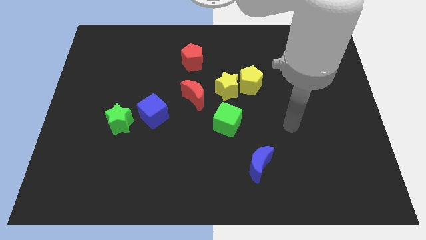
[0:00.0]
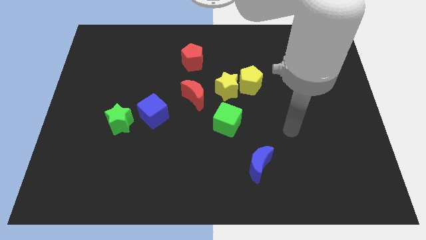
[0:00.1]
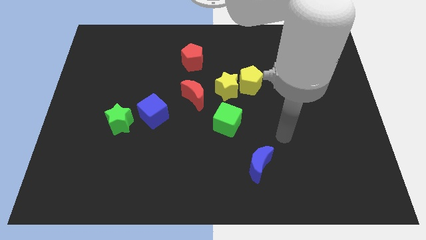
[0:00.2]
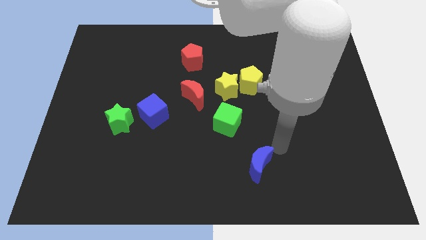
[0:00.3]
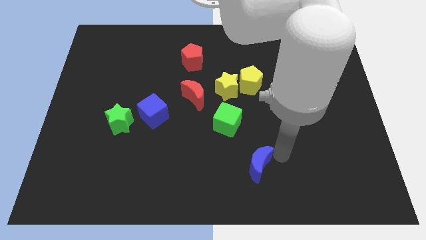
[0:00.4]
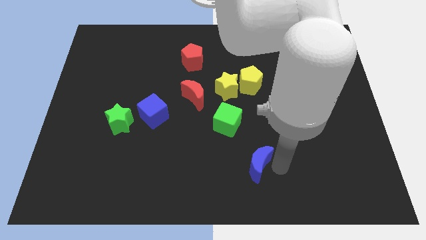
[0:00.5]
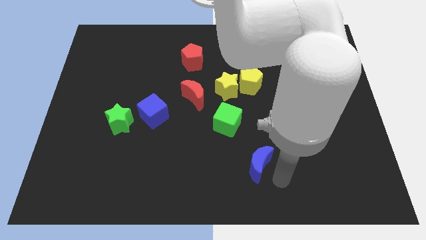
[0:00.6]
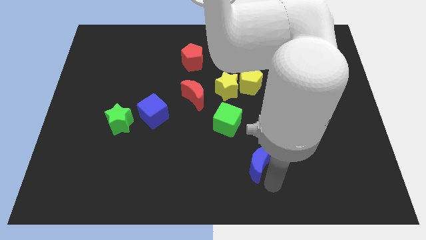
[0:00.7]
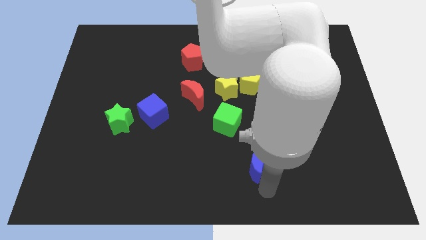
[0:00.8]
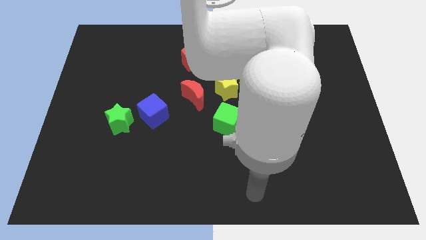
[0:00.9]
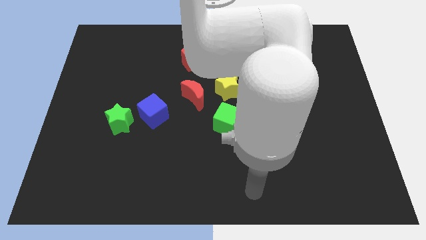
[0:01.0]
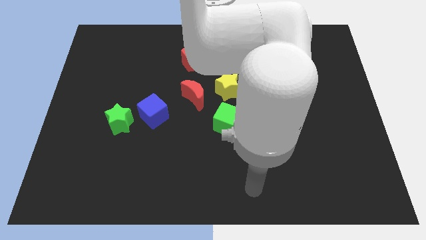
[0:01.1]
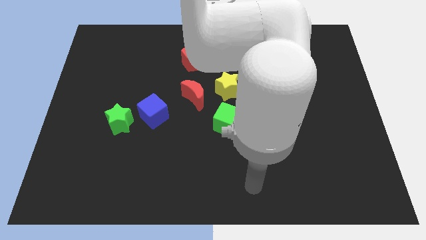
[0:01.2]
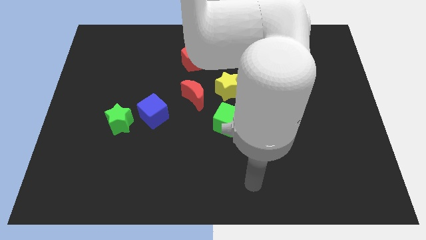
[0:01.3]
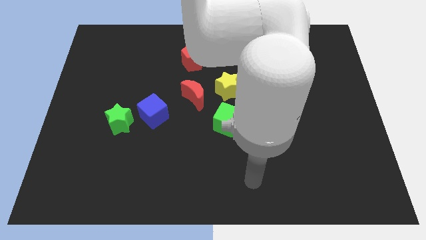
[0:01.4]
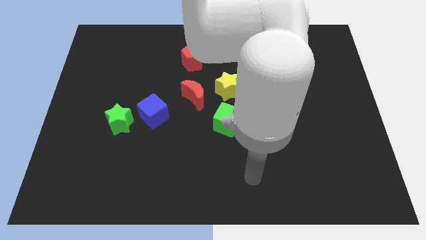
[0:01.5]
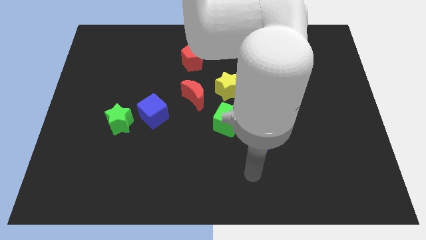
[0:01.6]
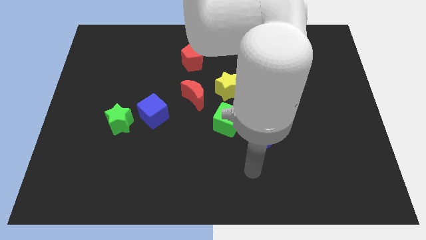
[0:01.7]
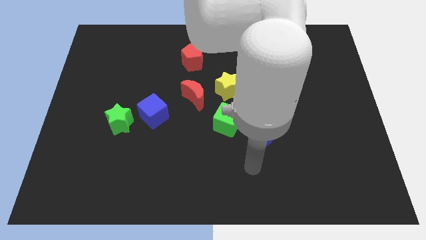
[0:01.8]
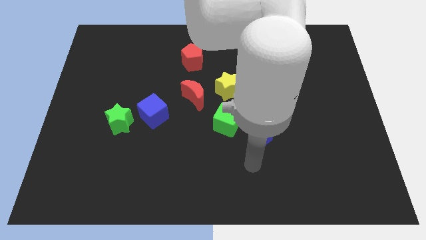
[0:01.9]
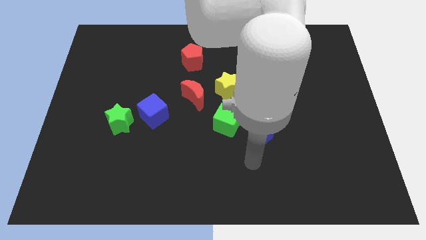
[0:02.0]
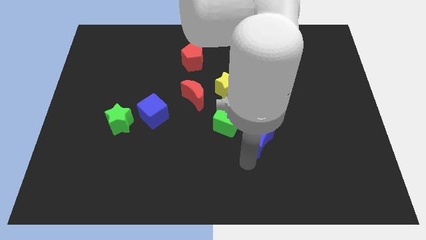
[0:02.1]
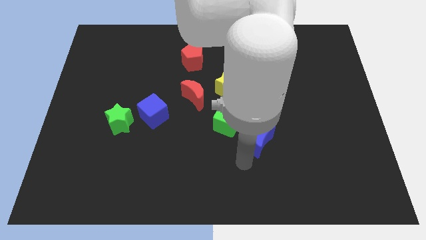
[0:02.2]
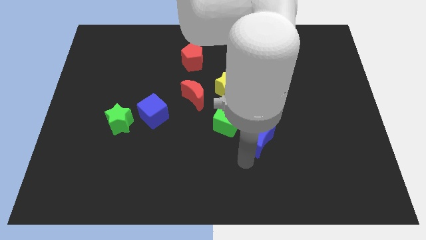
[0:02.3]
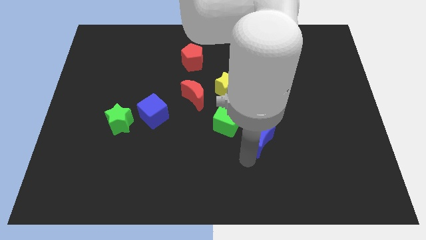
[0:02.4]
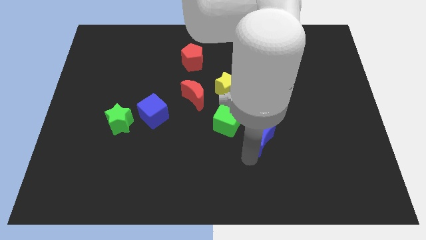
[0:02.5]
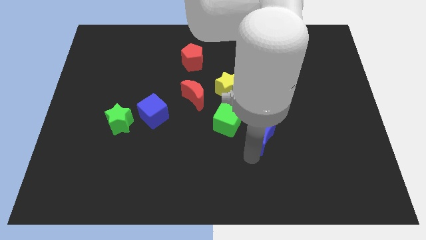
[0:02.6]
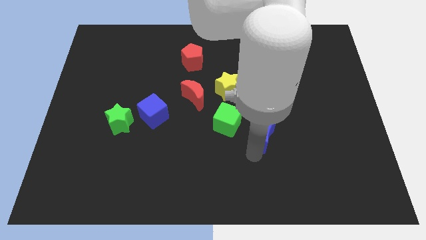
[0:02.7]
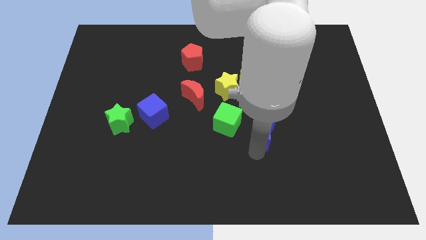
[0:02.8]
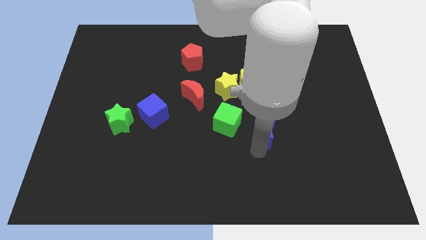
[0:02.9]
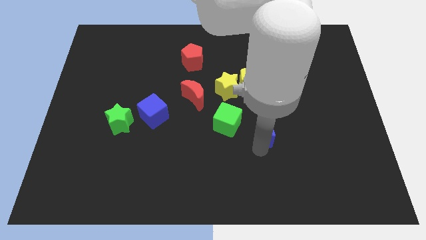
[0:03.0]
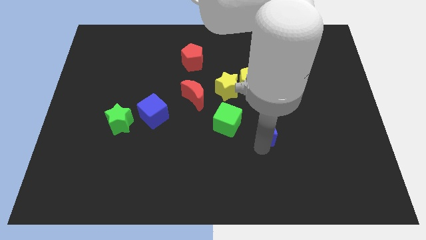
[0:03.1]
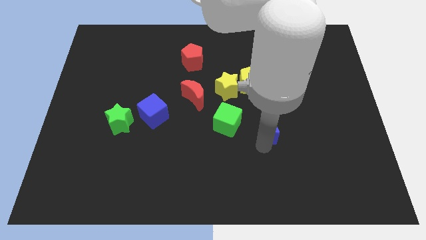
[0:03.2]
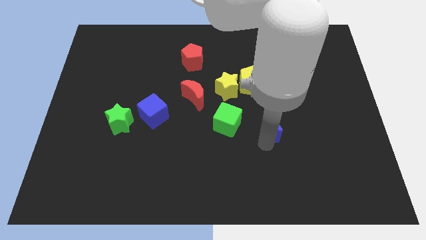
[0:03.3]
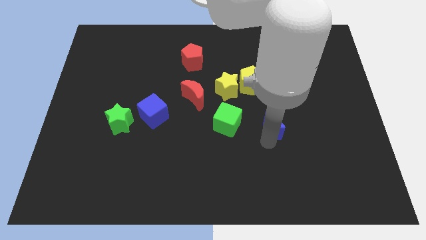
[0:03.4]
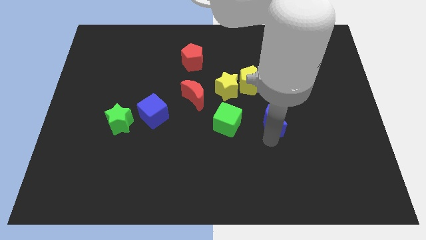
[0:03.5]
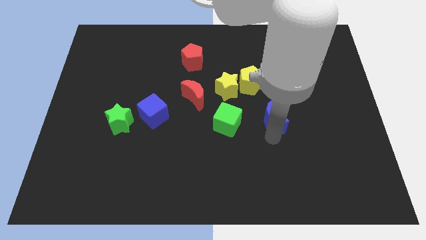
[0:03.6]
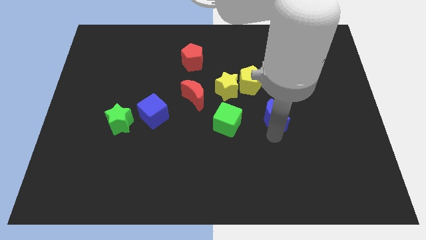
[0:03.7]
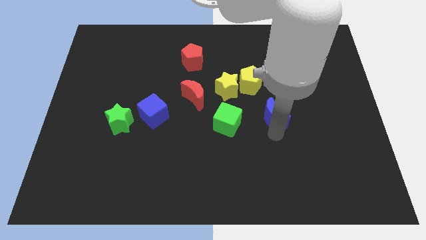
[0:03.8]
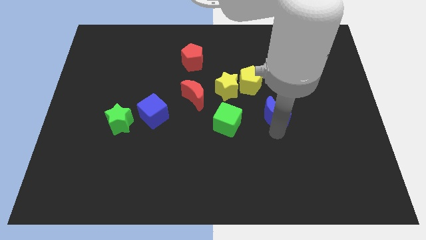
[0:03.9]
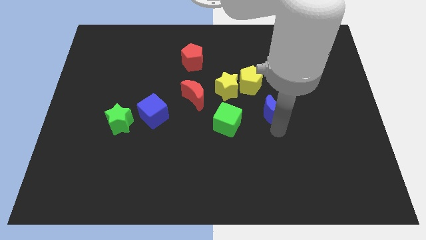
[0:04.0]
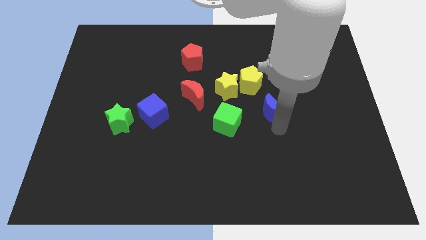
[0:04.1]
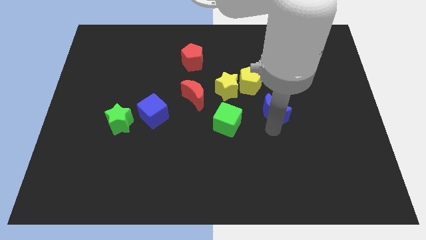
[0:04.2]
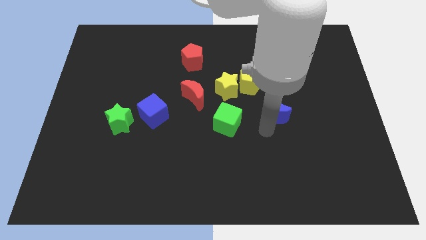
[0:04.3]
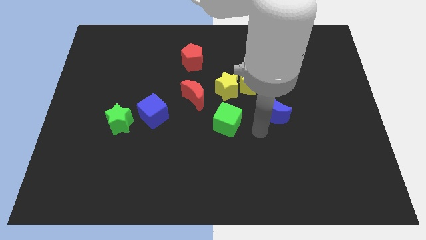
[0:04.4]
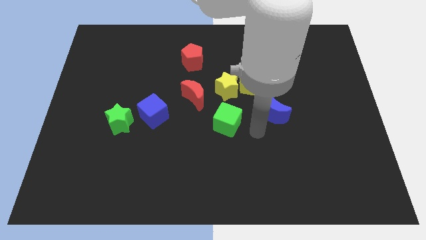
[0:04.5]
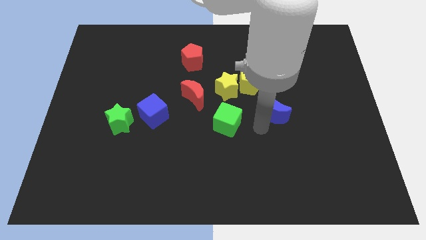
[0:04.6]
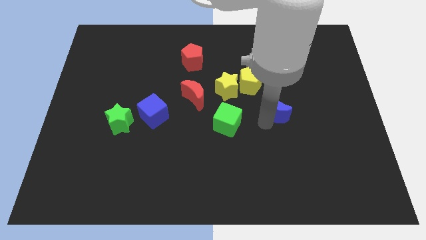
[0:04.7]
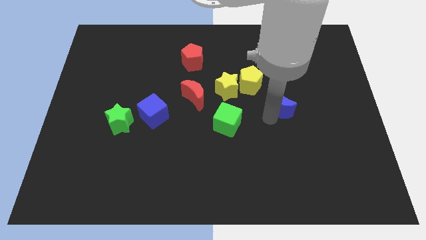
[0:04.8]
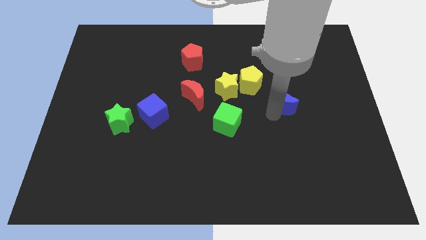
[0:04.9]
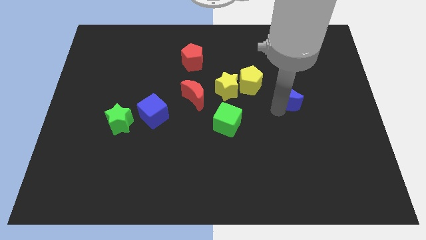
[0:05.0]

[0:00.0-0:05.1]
slide the blue moon to the right of the yellow pentagon

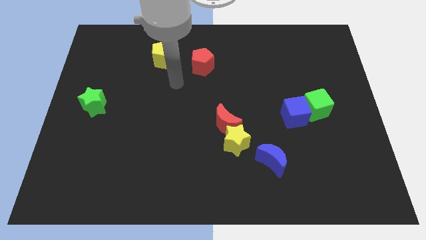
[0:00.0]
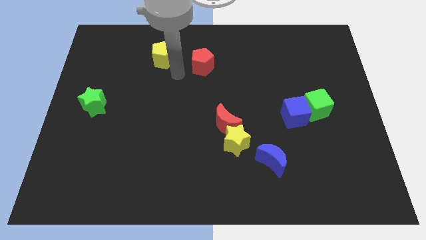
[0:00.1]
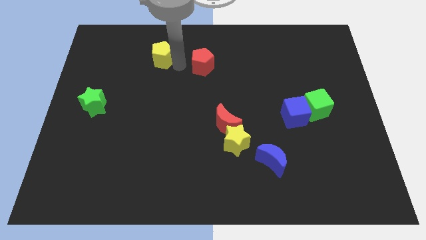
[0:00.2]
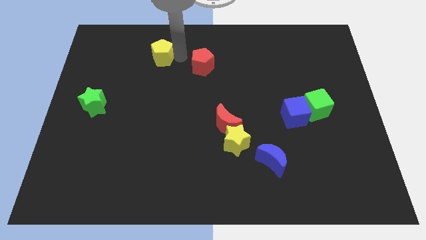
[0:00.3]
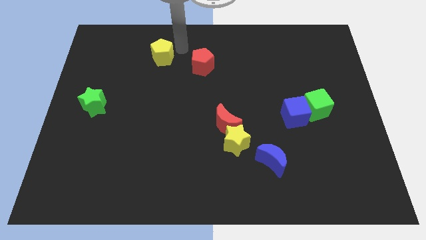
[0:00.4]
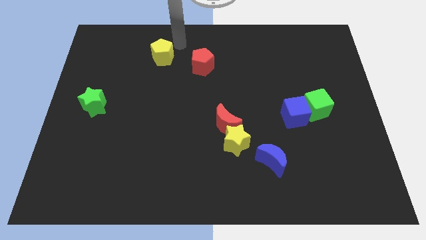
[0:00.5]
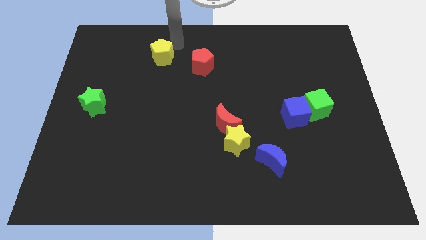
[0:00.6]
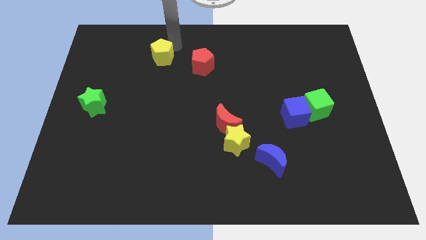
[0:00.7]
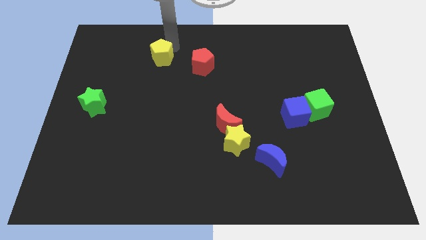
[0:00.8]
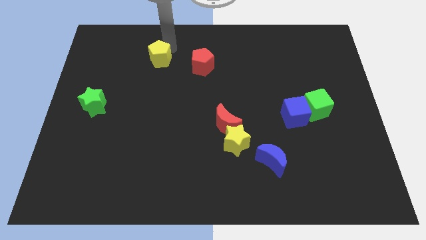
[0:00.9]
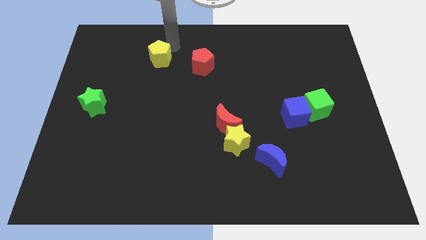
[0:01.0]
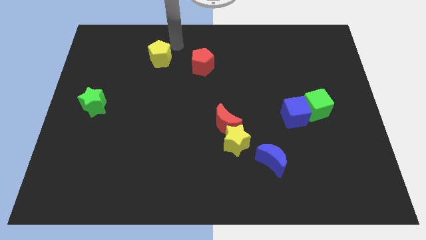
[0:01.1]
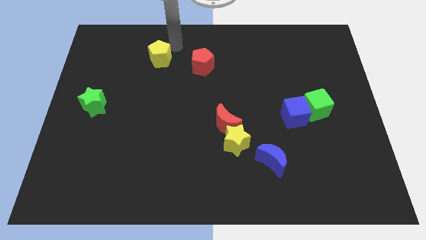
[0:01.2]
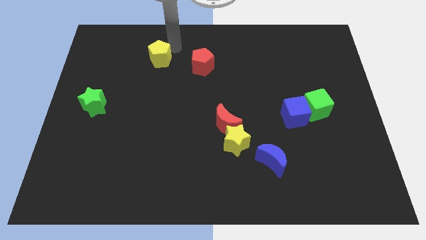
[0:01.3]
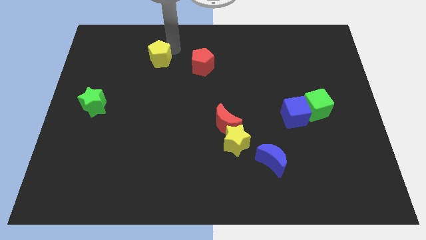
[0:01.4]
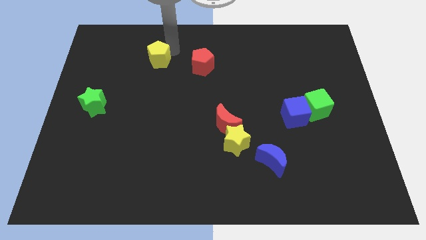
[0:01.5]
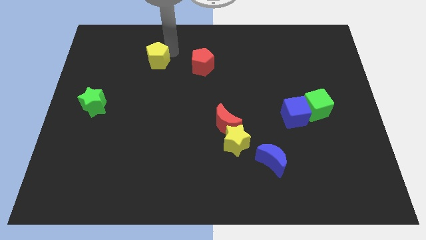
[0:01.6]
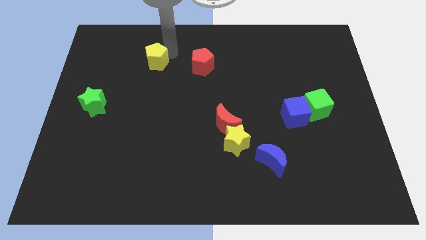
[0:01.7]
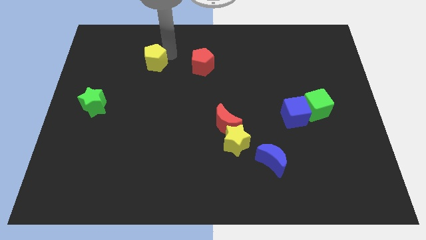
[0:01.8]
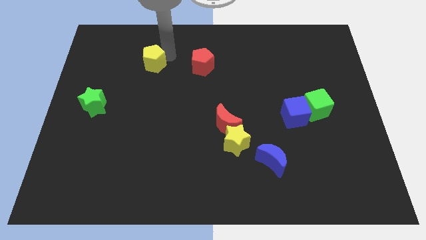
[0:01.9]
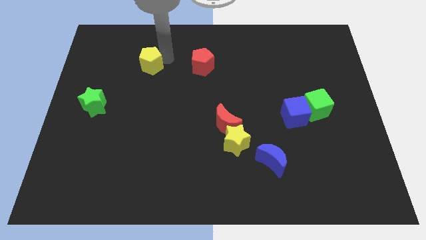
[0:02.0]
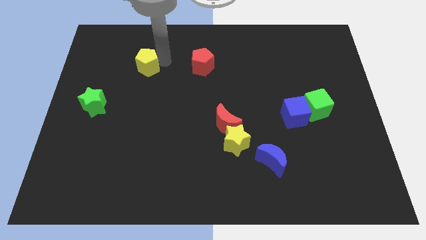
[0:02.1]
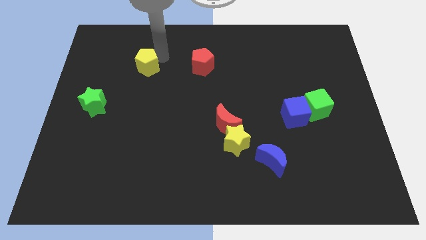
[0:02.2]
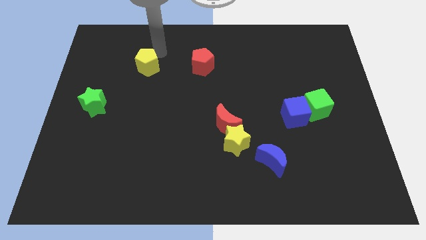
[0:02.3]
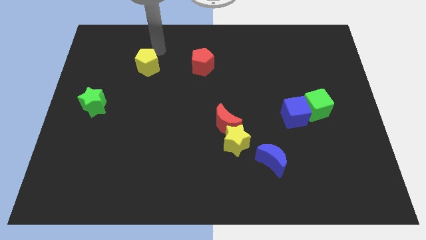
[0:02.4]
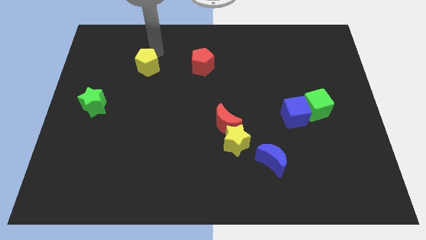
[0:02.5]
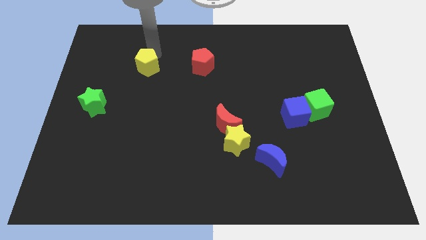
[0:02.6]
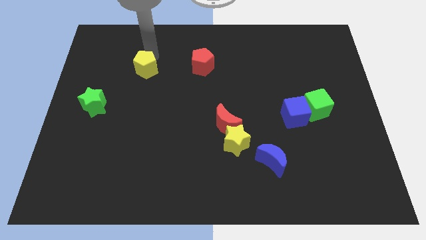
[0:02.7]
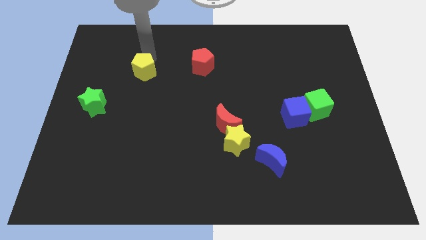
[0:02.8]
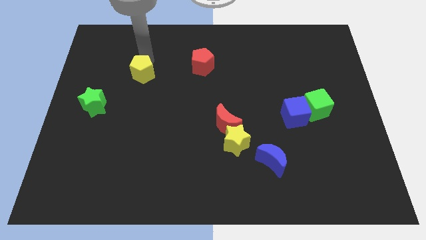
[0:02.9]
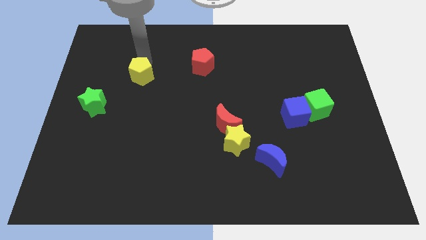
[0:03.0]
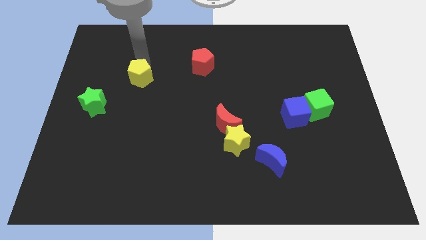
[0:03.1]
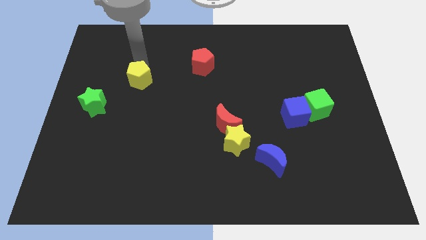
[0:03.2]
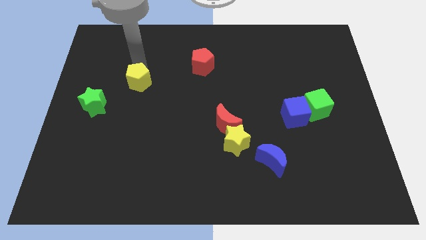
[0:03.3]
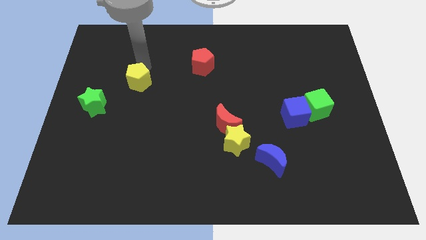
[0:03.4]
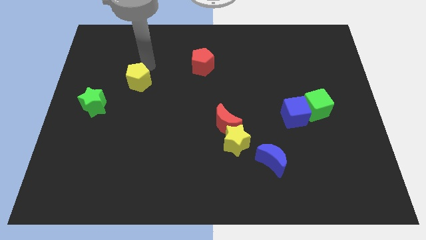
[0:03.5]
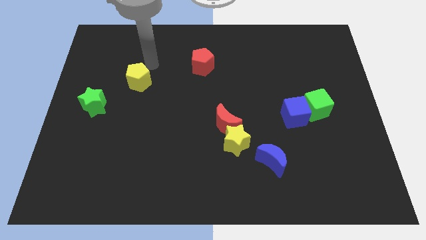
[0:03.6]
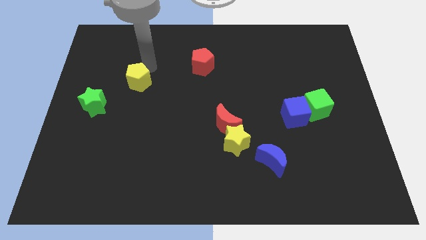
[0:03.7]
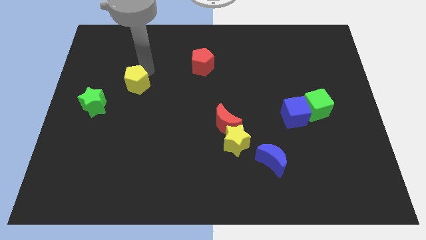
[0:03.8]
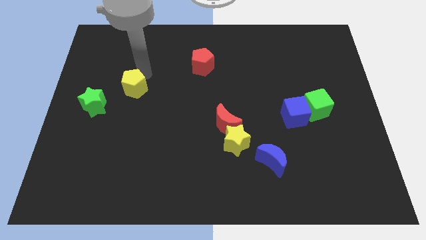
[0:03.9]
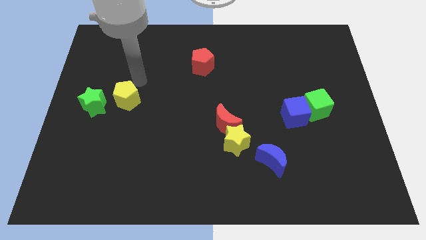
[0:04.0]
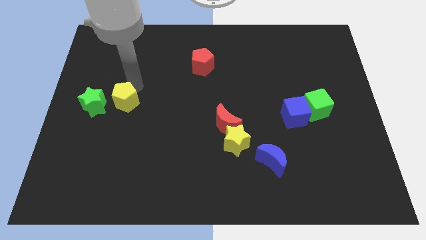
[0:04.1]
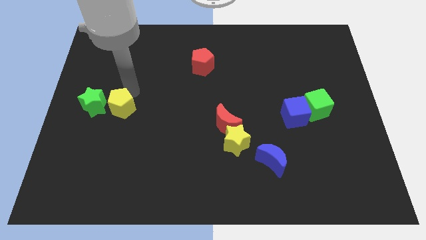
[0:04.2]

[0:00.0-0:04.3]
move the yellow pentagon diagonally down and to the right of the green star
